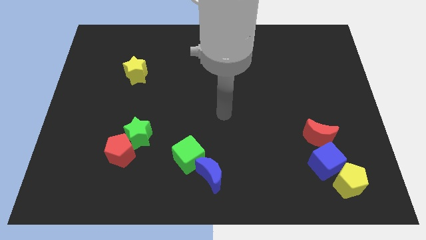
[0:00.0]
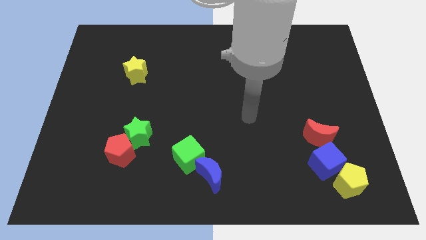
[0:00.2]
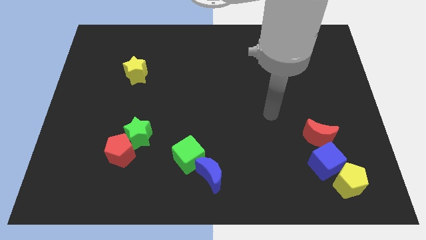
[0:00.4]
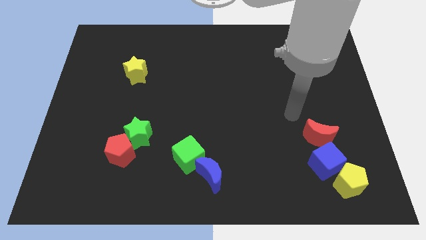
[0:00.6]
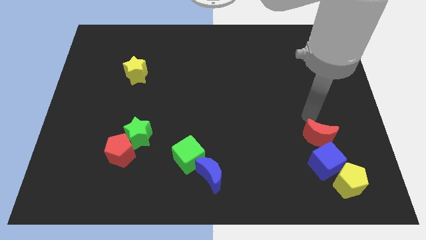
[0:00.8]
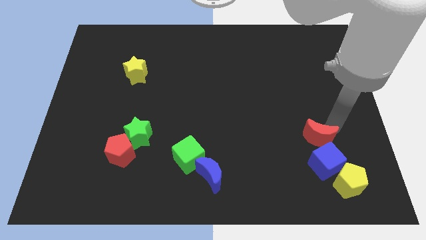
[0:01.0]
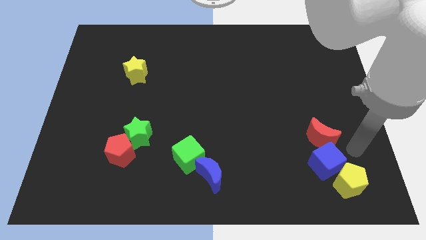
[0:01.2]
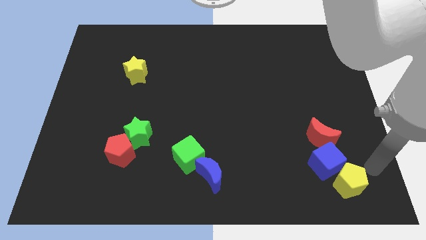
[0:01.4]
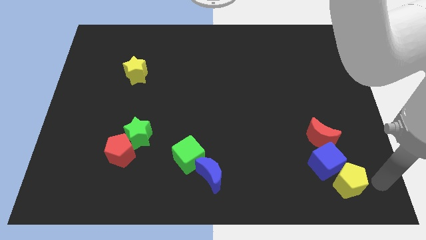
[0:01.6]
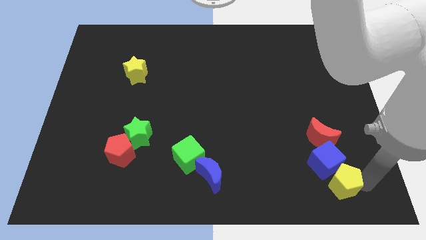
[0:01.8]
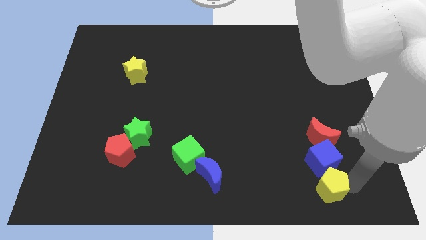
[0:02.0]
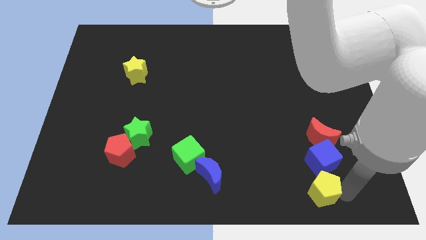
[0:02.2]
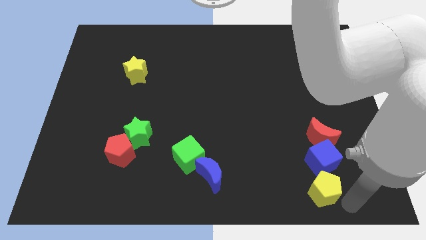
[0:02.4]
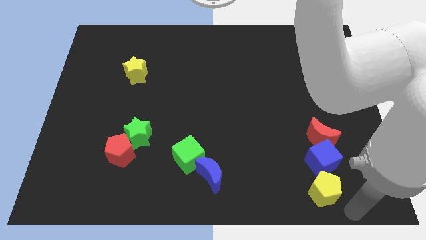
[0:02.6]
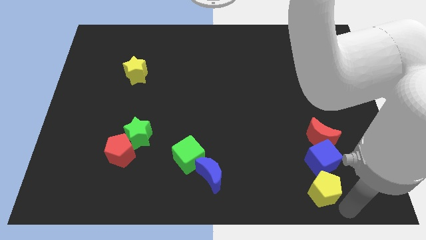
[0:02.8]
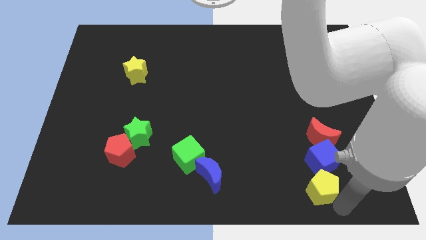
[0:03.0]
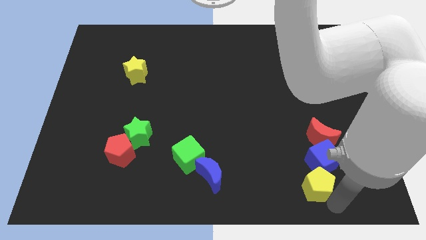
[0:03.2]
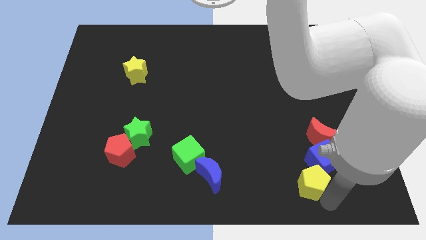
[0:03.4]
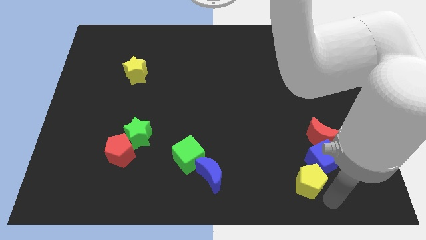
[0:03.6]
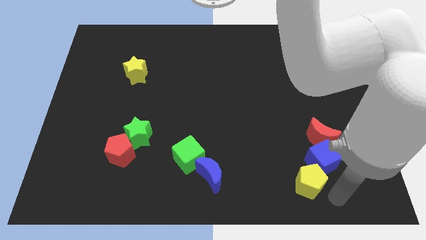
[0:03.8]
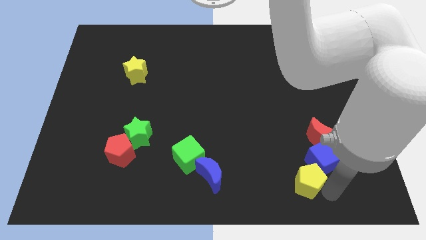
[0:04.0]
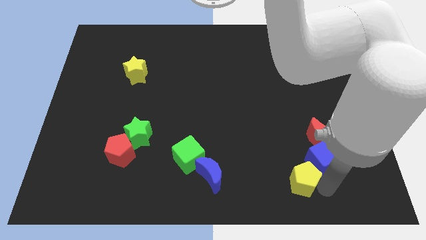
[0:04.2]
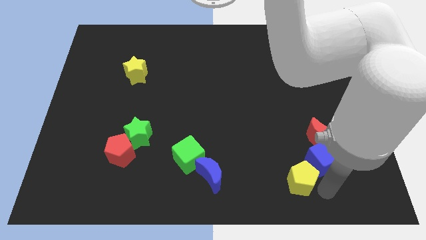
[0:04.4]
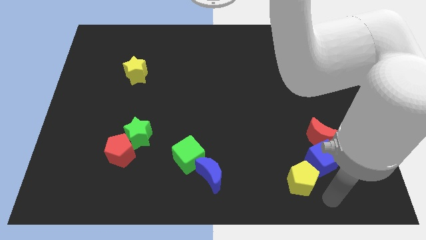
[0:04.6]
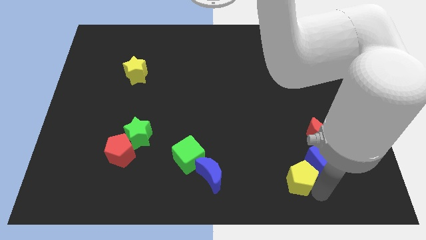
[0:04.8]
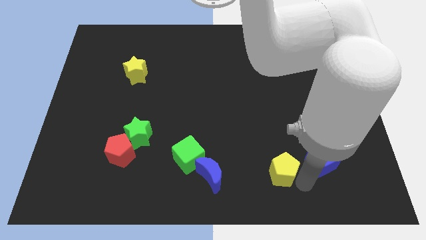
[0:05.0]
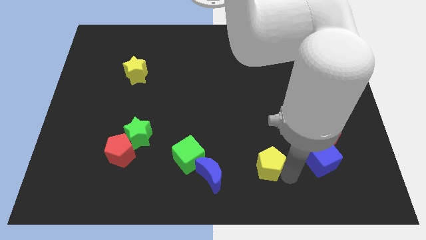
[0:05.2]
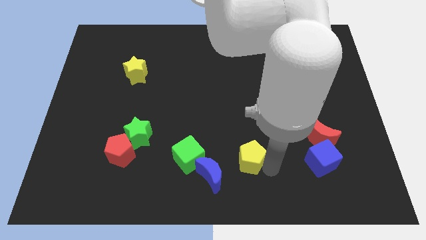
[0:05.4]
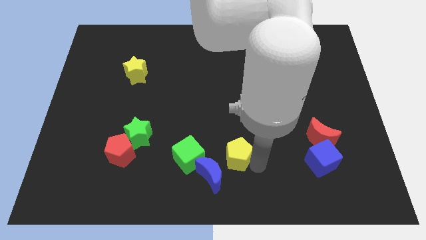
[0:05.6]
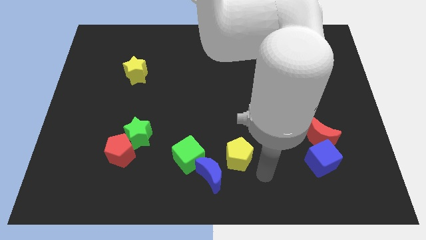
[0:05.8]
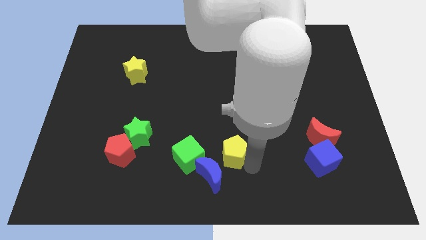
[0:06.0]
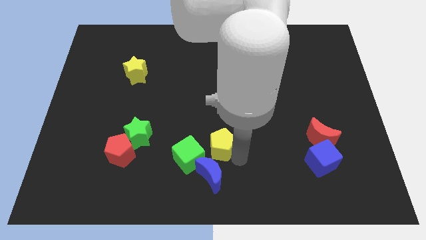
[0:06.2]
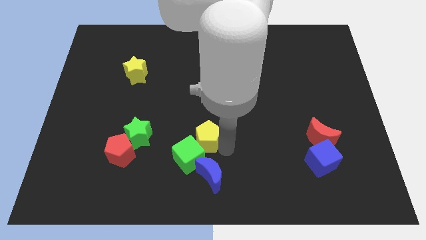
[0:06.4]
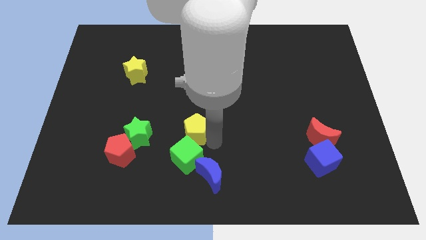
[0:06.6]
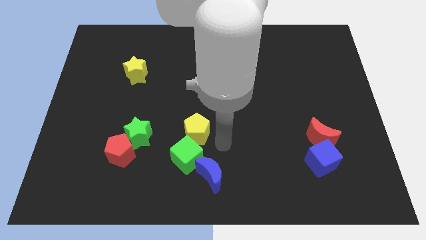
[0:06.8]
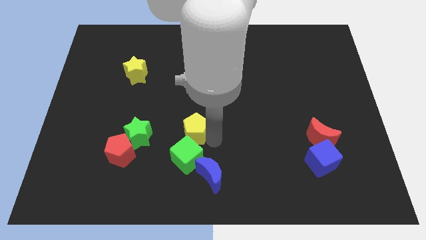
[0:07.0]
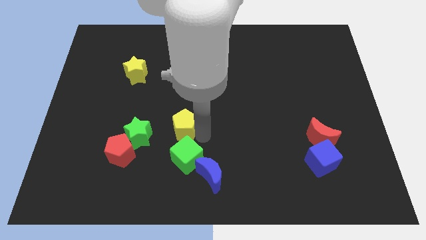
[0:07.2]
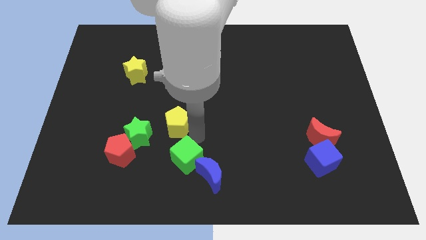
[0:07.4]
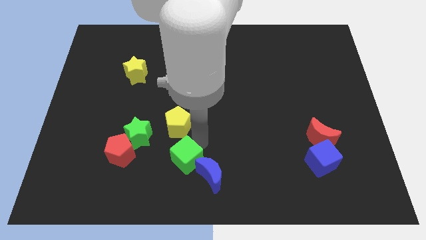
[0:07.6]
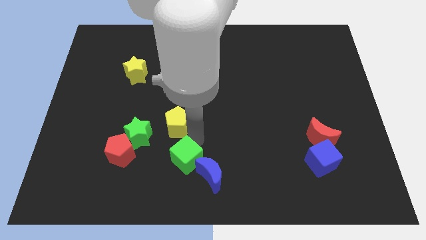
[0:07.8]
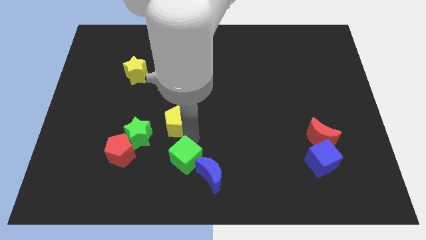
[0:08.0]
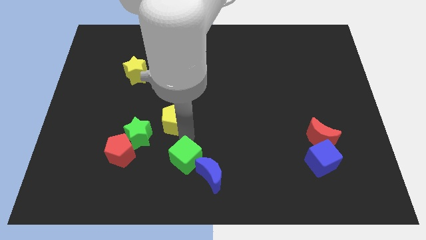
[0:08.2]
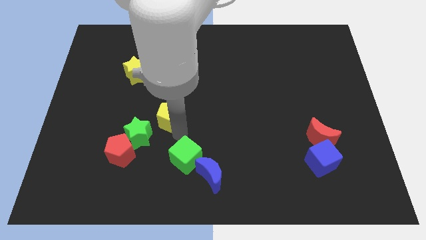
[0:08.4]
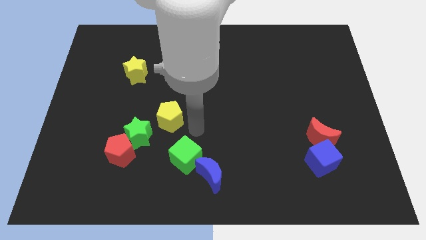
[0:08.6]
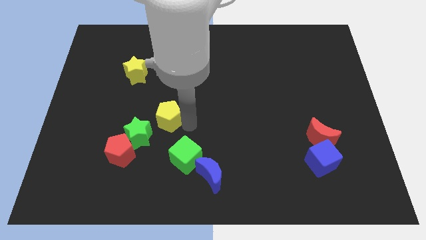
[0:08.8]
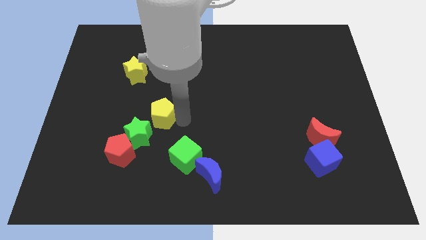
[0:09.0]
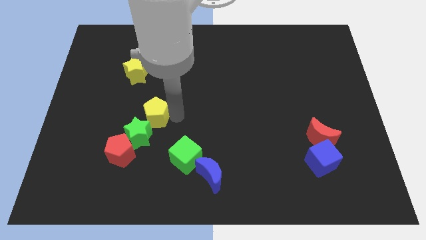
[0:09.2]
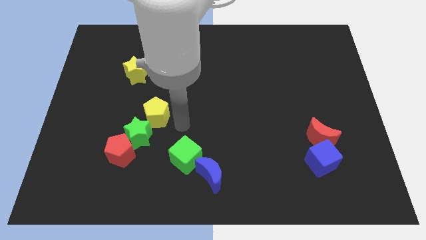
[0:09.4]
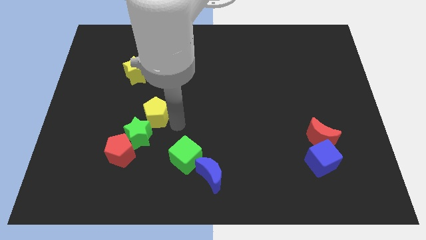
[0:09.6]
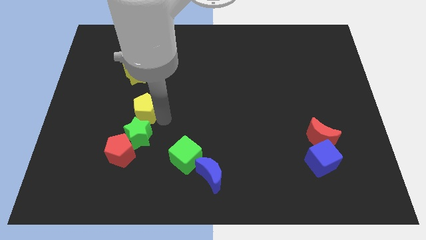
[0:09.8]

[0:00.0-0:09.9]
move the yellow pentagon to the bottom of the yellow star

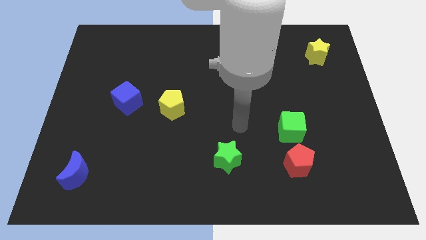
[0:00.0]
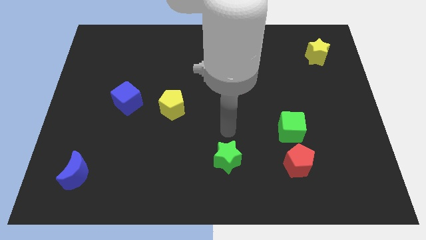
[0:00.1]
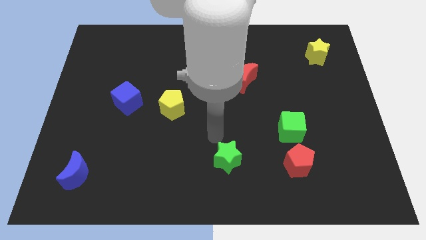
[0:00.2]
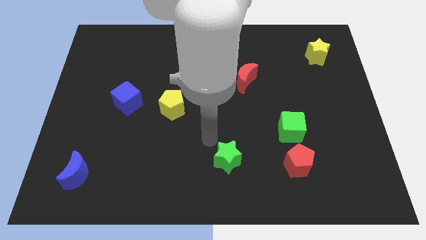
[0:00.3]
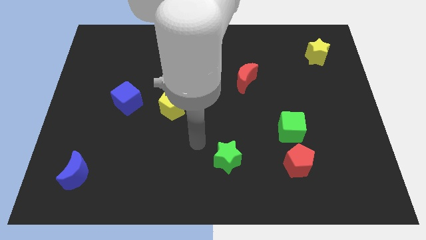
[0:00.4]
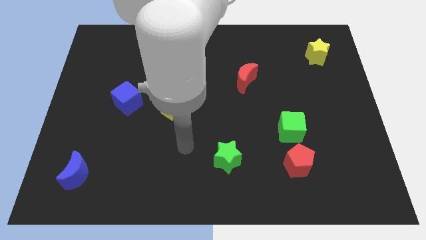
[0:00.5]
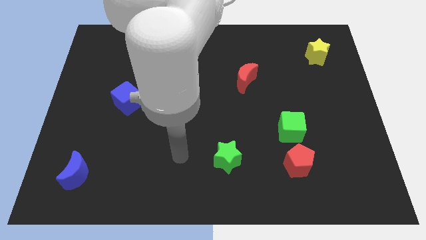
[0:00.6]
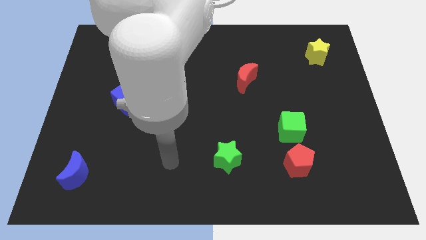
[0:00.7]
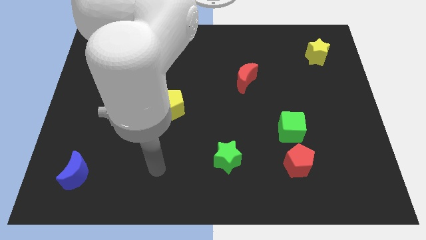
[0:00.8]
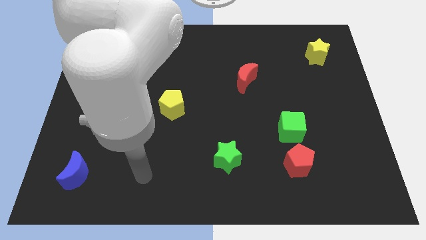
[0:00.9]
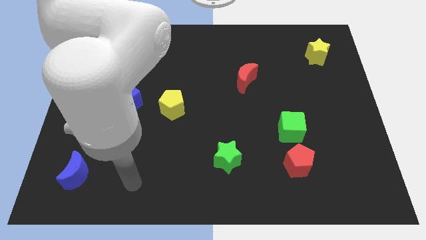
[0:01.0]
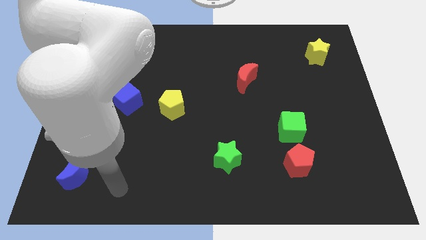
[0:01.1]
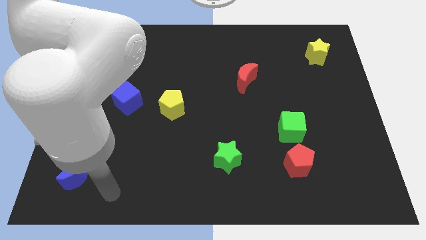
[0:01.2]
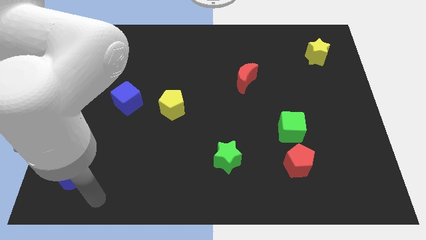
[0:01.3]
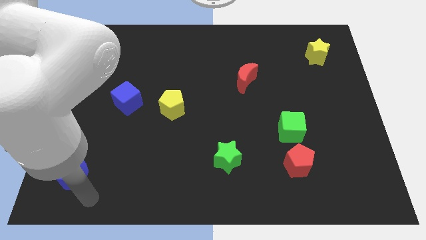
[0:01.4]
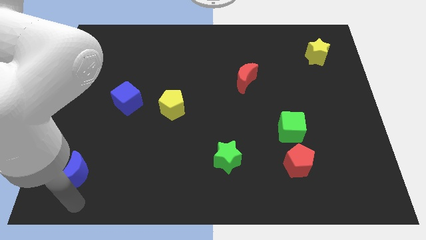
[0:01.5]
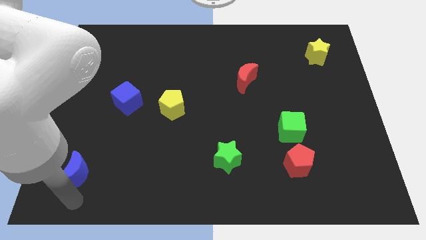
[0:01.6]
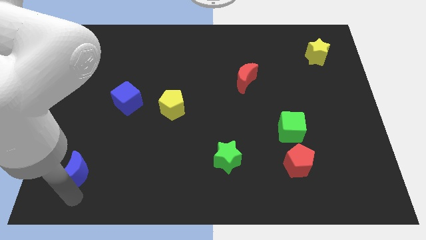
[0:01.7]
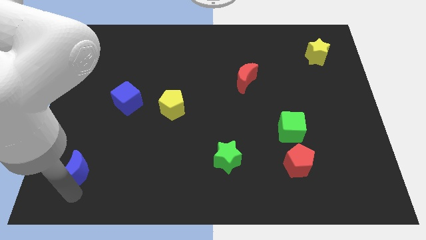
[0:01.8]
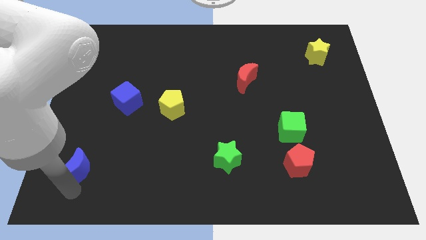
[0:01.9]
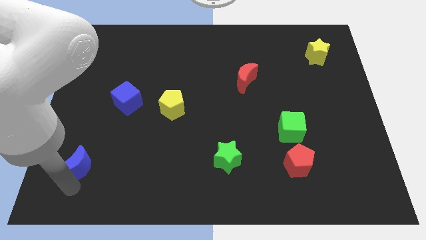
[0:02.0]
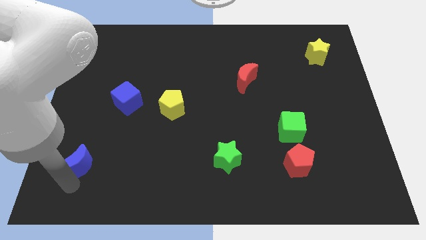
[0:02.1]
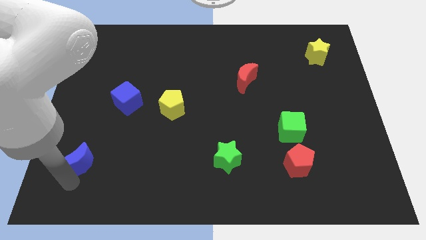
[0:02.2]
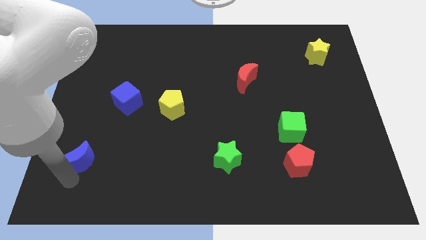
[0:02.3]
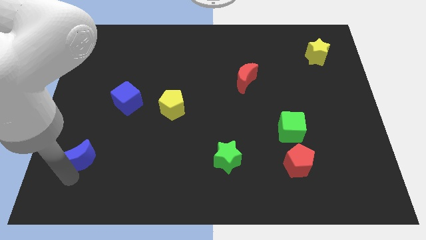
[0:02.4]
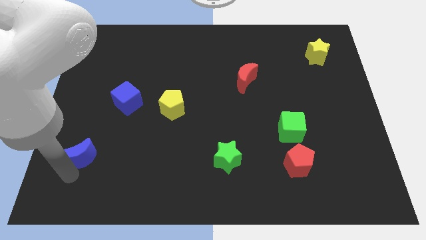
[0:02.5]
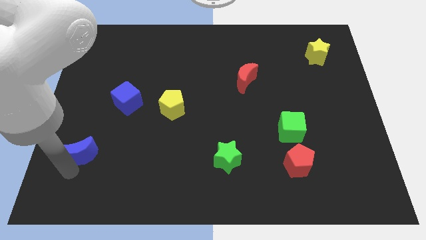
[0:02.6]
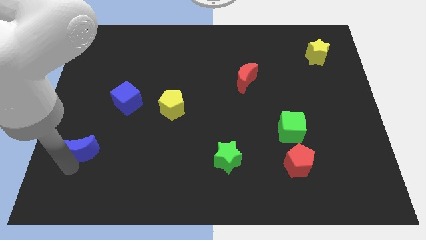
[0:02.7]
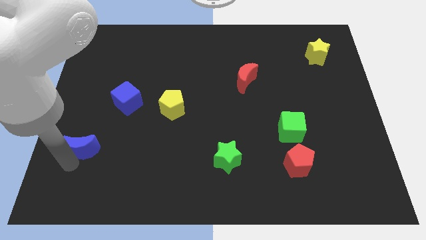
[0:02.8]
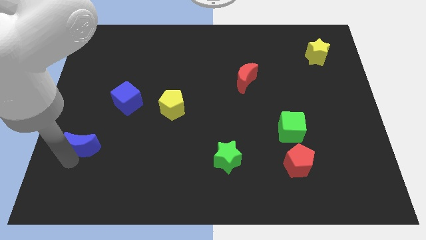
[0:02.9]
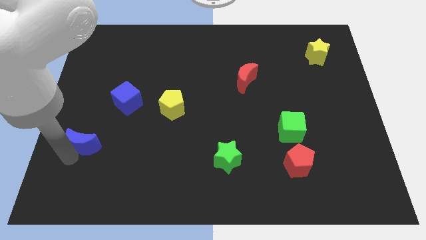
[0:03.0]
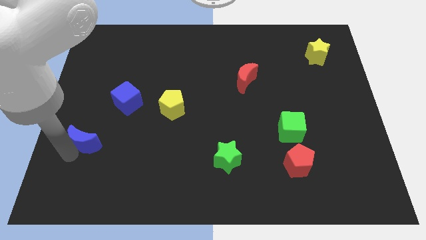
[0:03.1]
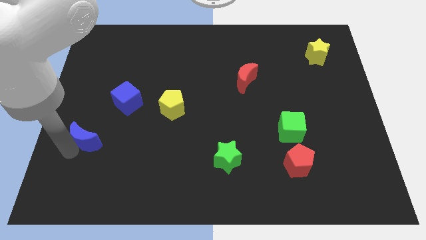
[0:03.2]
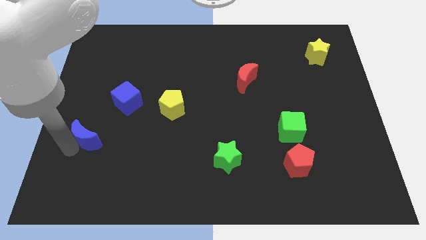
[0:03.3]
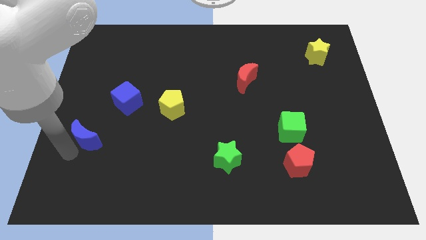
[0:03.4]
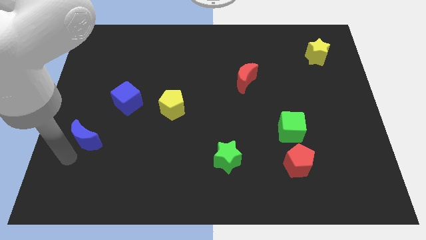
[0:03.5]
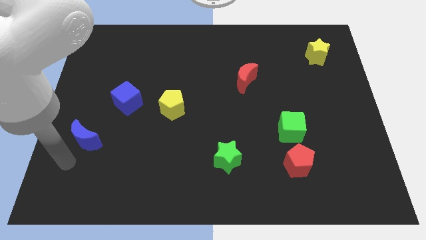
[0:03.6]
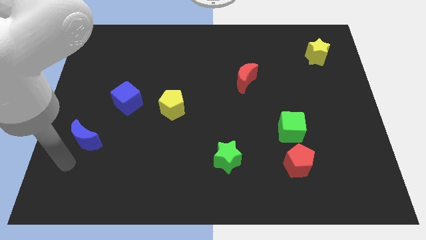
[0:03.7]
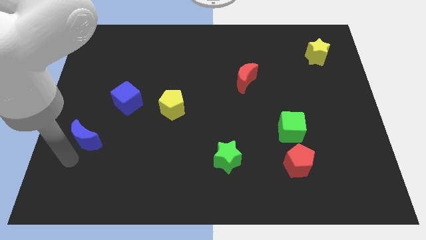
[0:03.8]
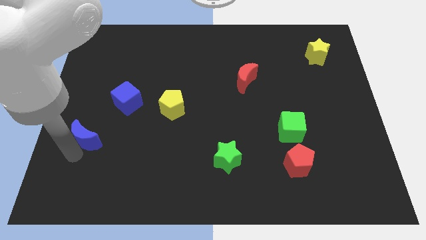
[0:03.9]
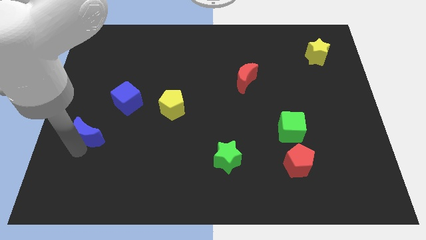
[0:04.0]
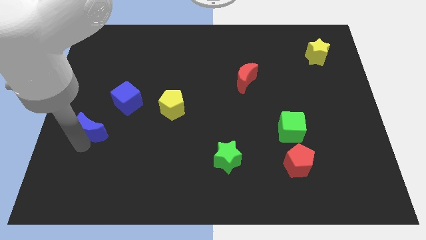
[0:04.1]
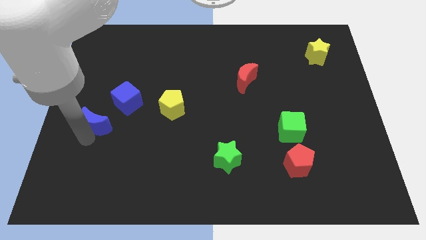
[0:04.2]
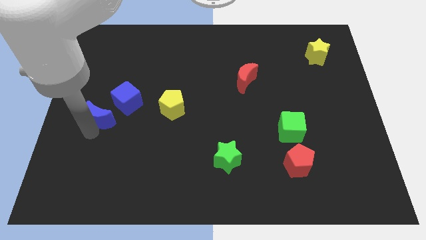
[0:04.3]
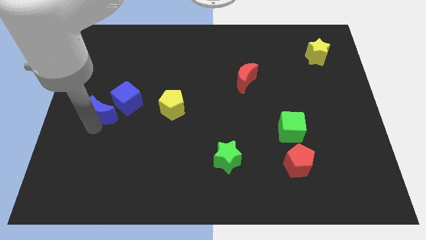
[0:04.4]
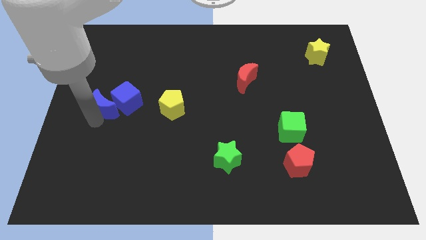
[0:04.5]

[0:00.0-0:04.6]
push the blue moon to the left of the yellow pentagon
